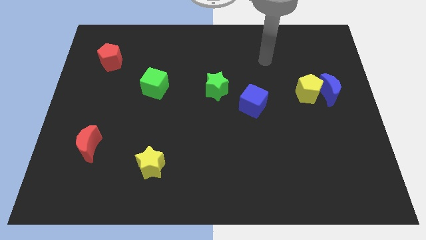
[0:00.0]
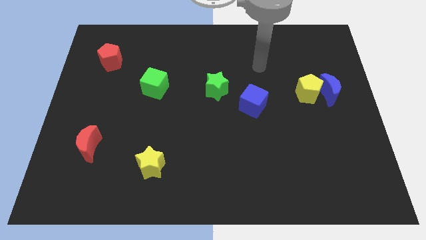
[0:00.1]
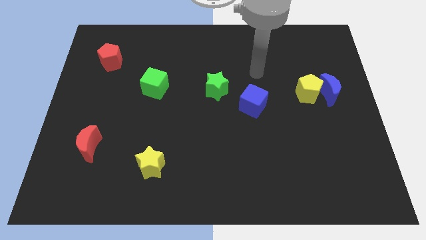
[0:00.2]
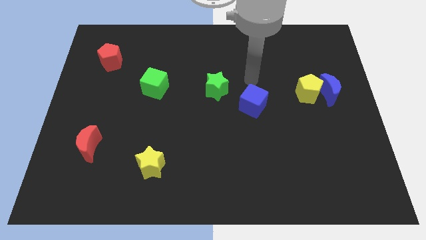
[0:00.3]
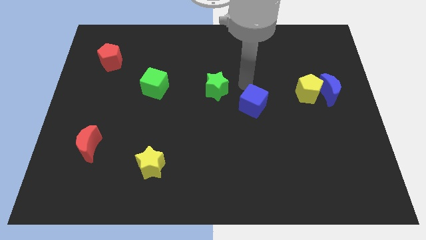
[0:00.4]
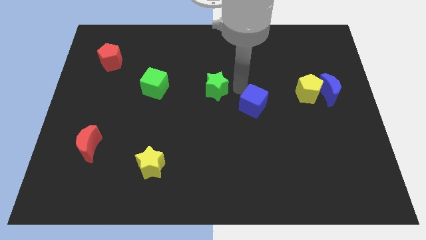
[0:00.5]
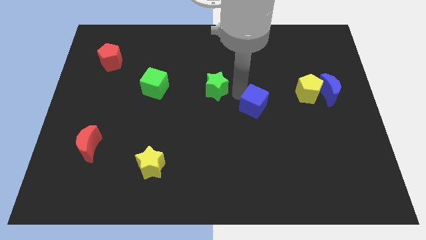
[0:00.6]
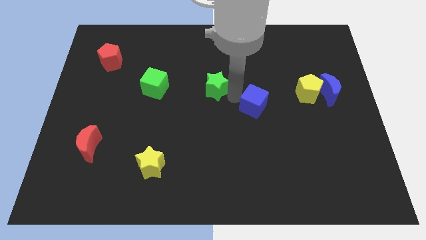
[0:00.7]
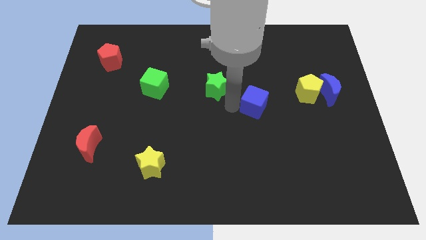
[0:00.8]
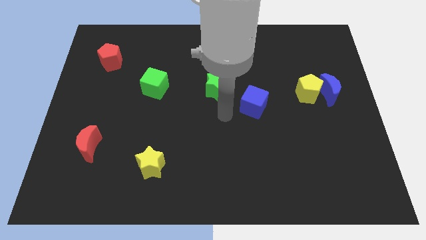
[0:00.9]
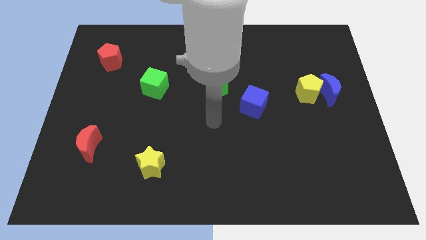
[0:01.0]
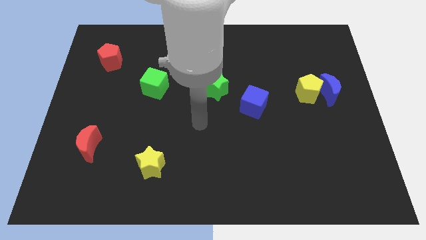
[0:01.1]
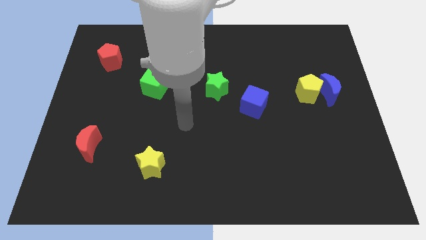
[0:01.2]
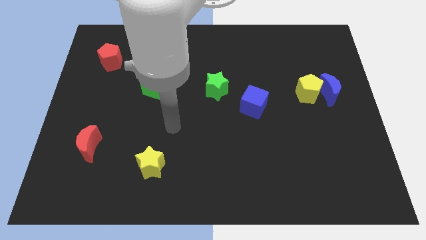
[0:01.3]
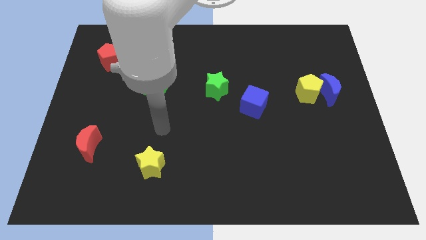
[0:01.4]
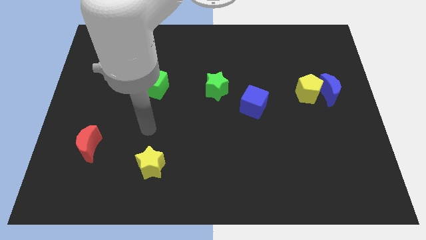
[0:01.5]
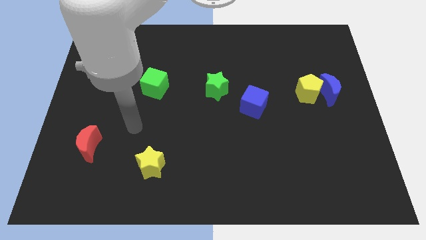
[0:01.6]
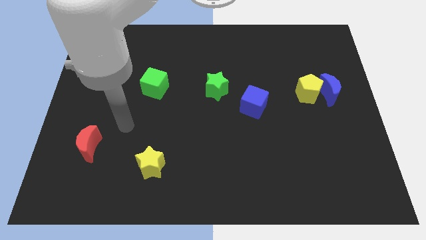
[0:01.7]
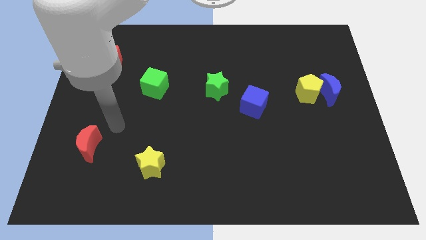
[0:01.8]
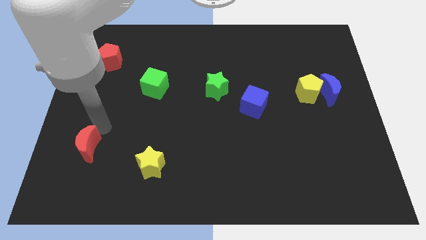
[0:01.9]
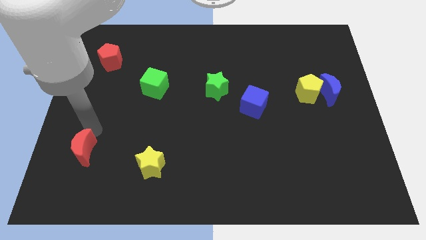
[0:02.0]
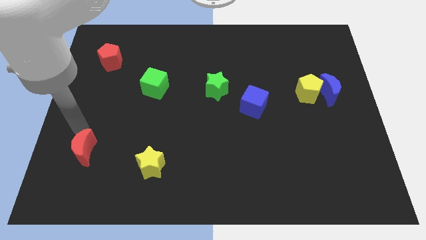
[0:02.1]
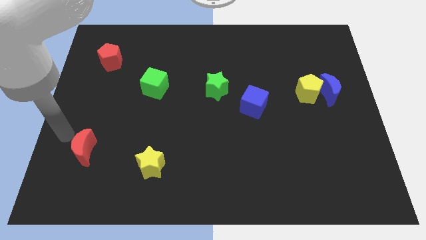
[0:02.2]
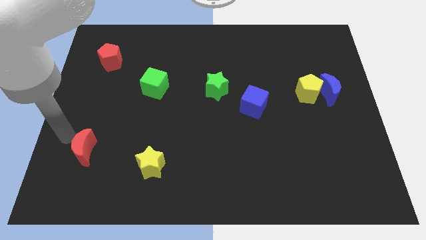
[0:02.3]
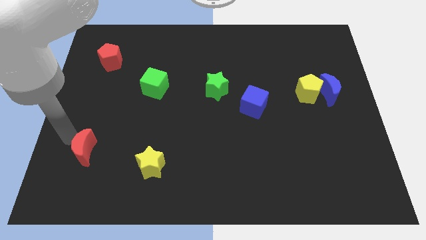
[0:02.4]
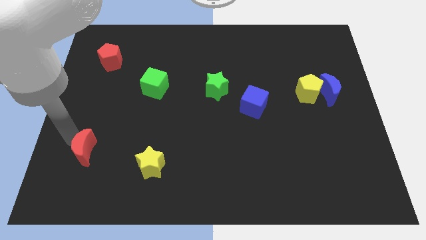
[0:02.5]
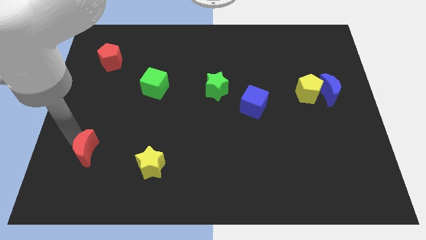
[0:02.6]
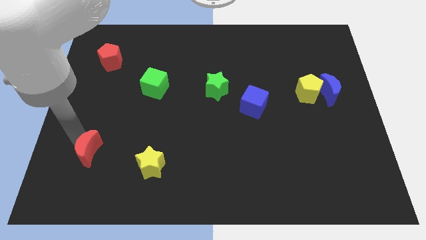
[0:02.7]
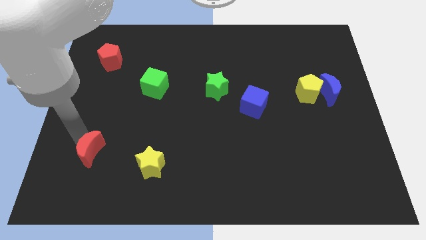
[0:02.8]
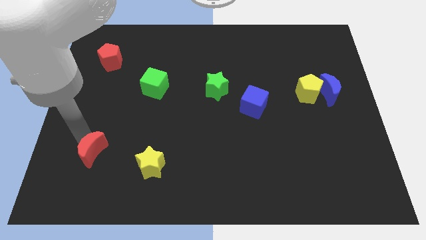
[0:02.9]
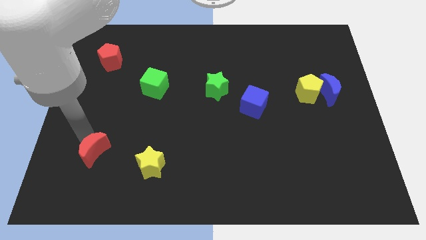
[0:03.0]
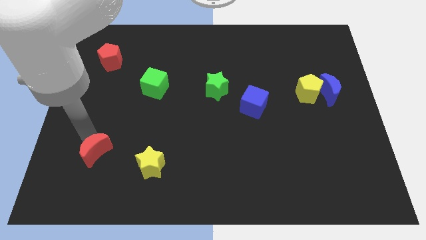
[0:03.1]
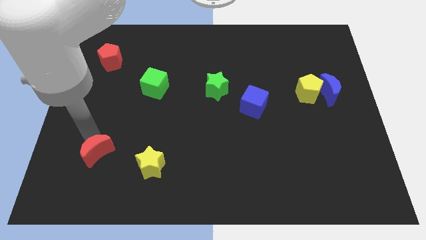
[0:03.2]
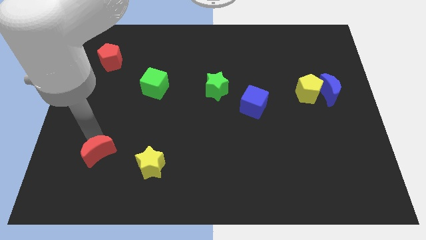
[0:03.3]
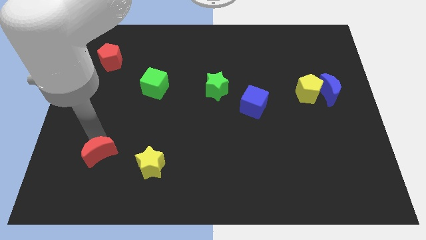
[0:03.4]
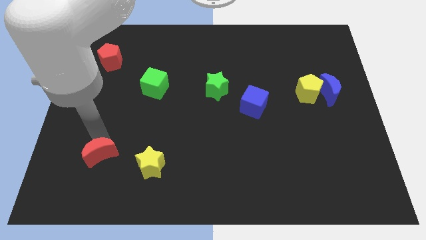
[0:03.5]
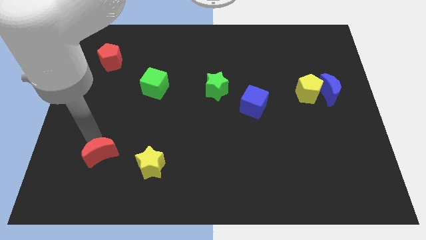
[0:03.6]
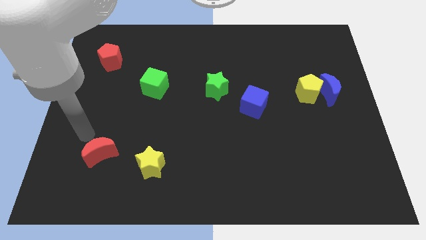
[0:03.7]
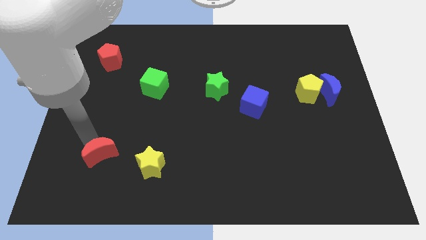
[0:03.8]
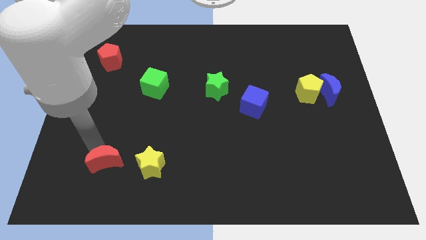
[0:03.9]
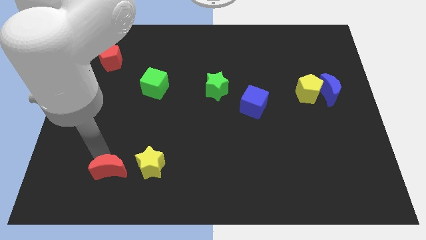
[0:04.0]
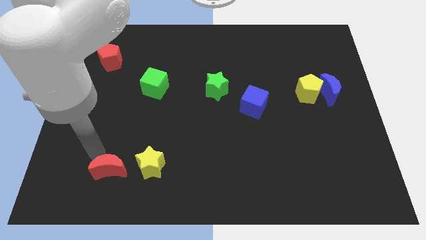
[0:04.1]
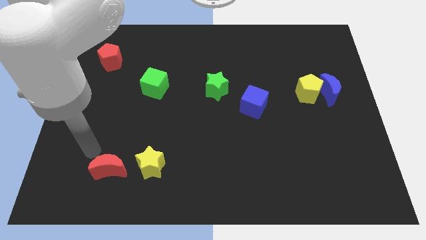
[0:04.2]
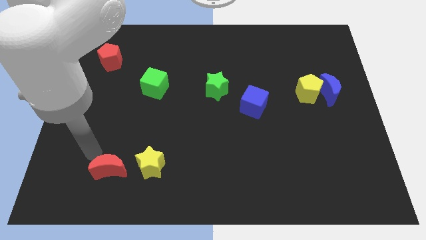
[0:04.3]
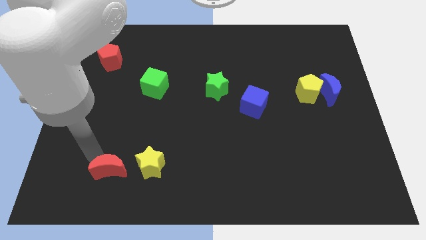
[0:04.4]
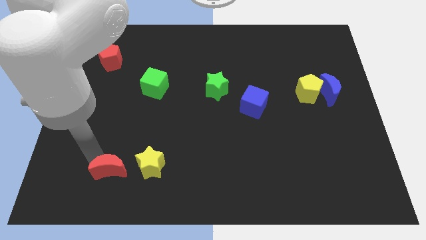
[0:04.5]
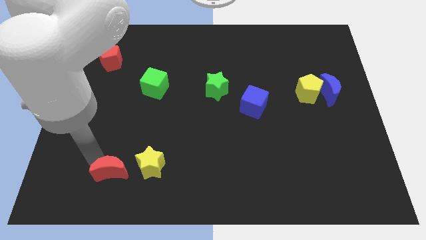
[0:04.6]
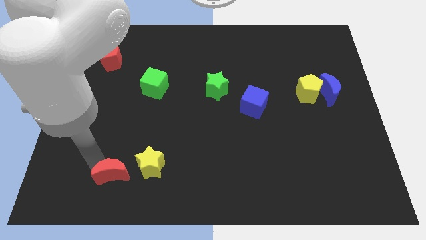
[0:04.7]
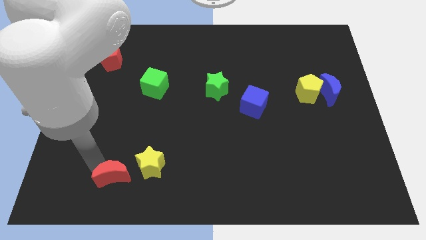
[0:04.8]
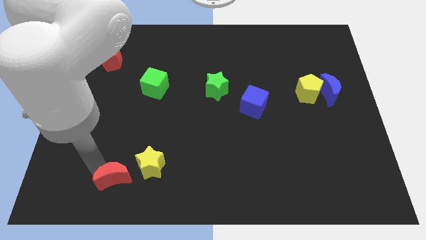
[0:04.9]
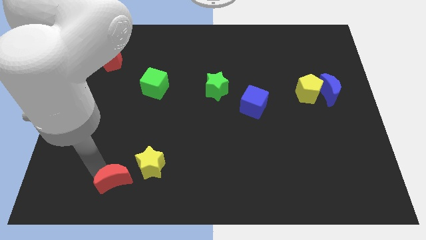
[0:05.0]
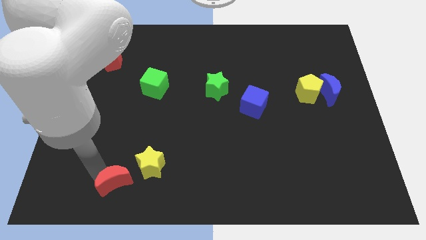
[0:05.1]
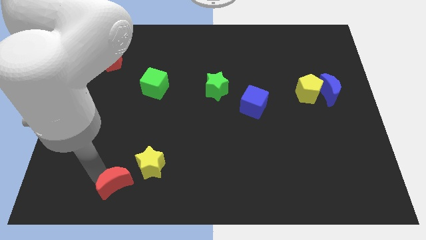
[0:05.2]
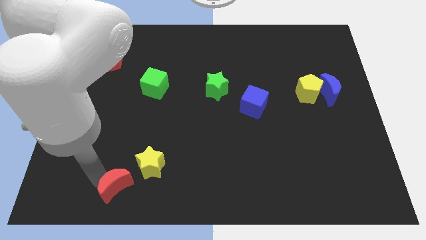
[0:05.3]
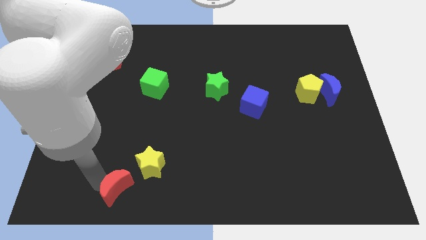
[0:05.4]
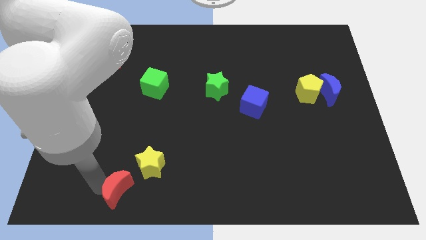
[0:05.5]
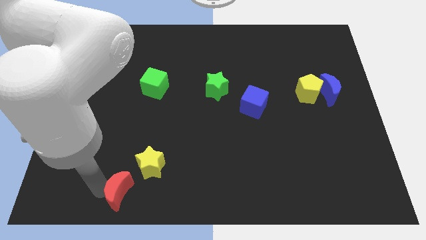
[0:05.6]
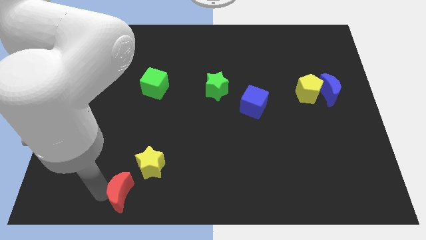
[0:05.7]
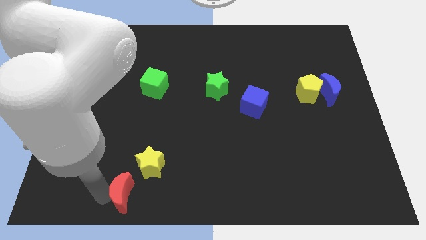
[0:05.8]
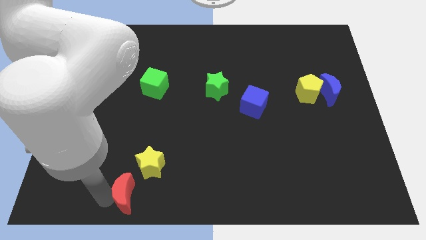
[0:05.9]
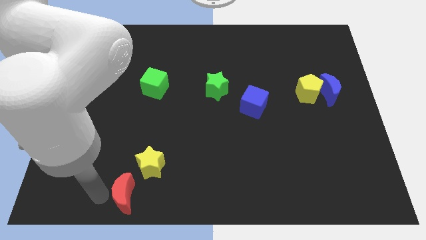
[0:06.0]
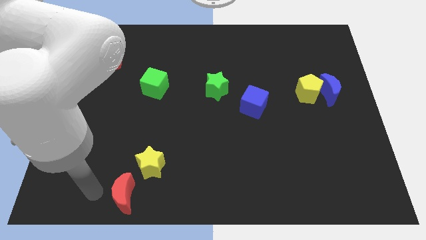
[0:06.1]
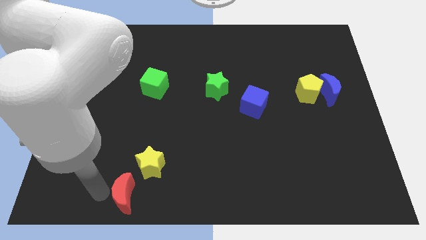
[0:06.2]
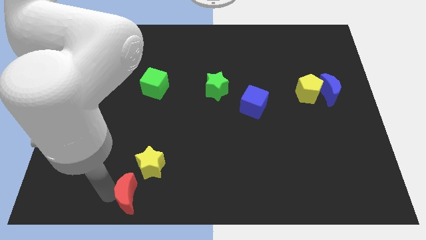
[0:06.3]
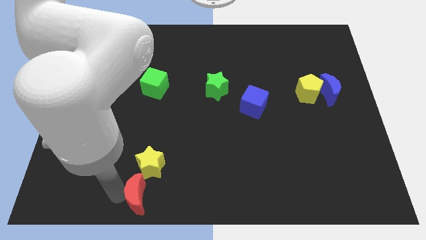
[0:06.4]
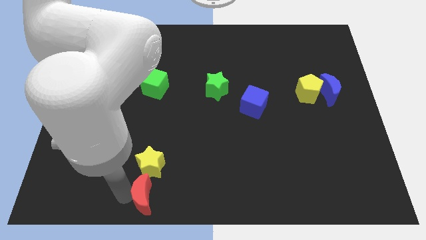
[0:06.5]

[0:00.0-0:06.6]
put the red moon to the bottom side
